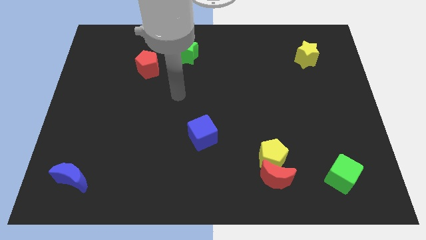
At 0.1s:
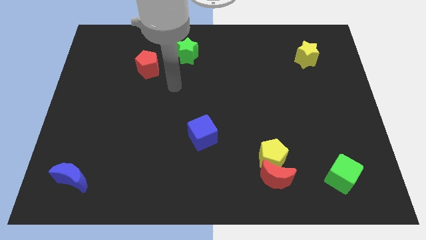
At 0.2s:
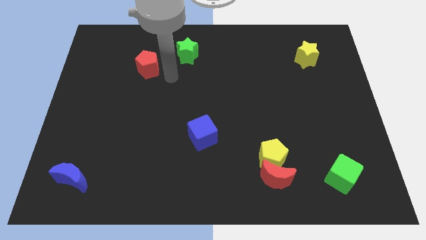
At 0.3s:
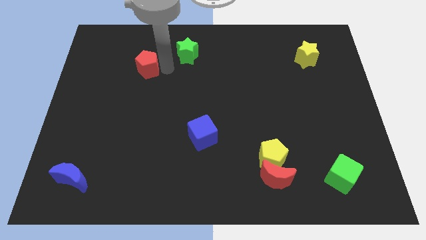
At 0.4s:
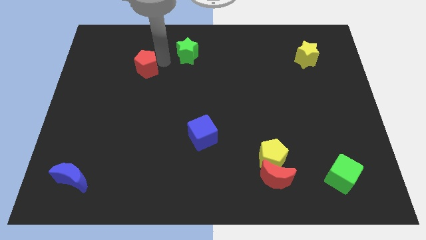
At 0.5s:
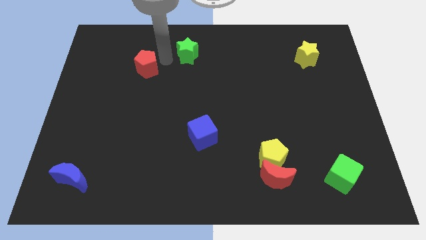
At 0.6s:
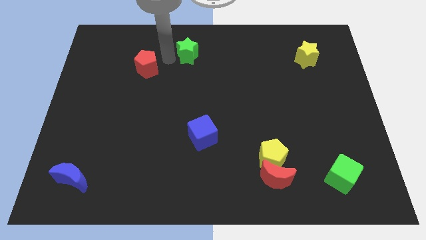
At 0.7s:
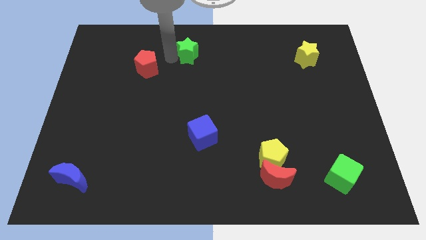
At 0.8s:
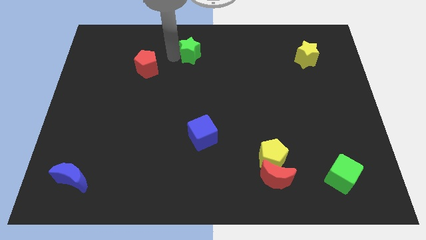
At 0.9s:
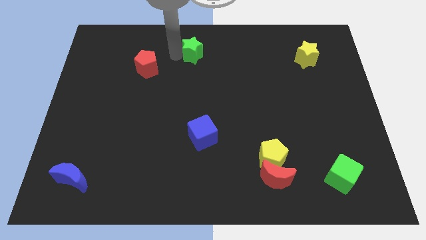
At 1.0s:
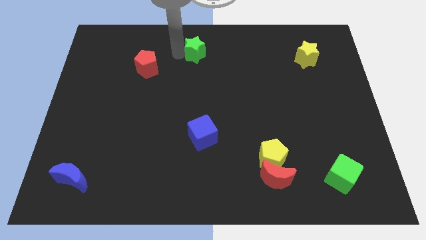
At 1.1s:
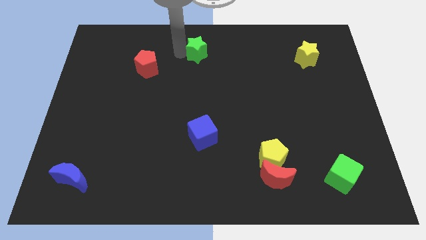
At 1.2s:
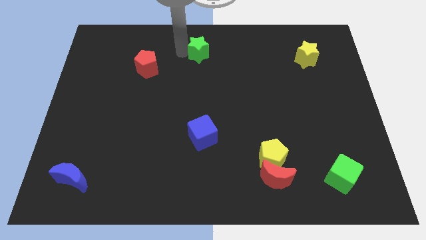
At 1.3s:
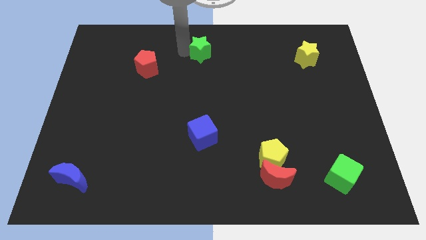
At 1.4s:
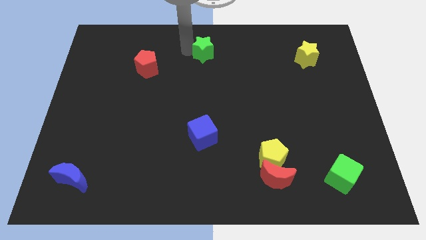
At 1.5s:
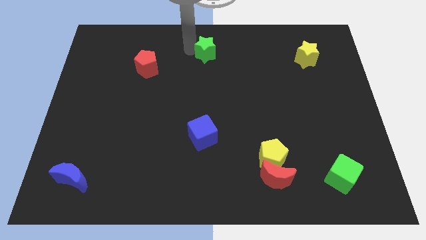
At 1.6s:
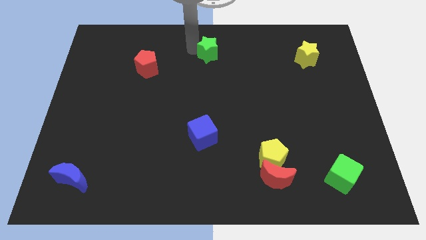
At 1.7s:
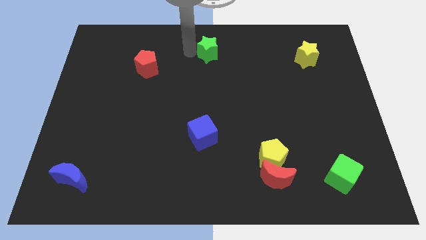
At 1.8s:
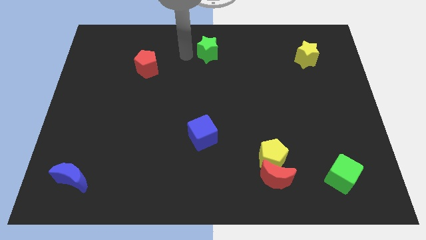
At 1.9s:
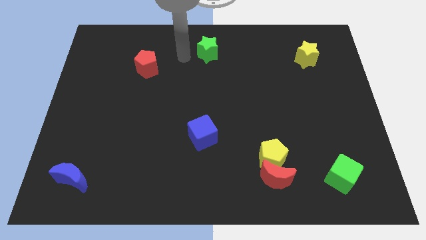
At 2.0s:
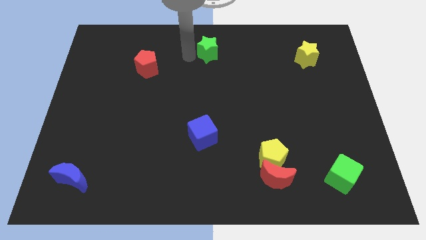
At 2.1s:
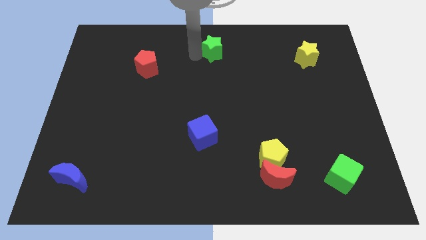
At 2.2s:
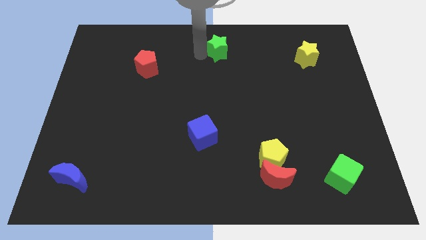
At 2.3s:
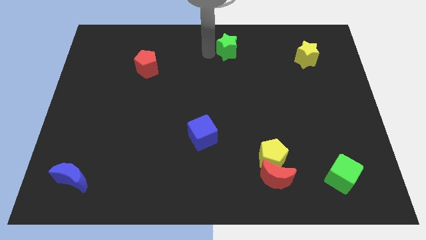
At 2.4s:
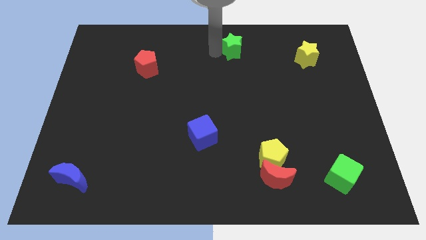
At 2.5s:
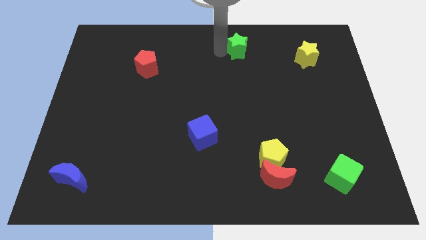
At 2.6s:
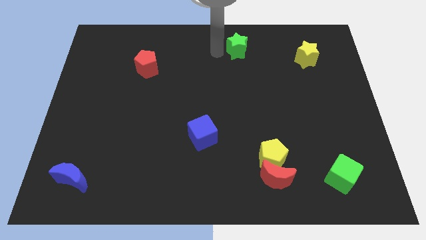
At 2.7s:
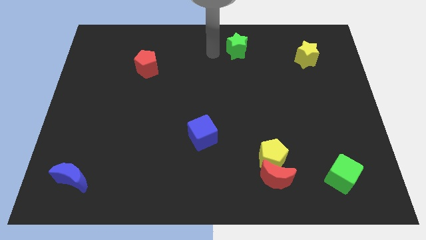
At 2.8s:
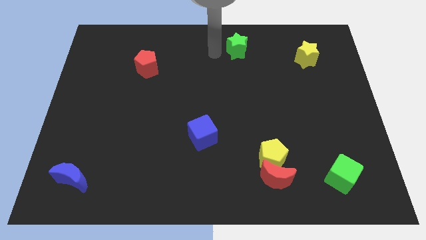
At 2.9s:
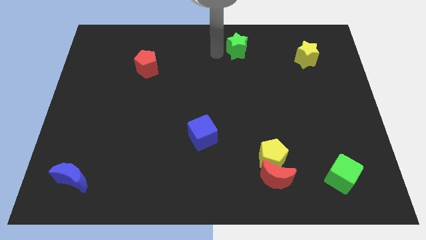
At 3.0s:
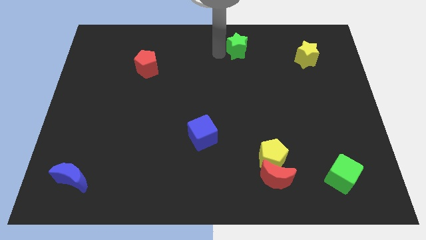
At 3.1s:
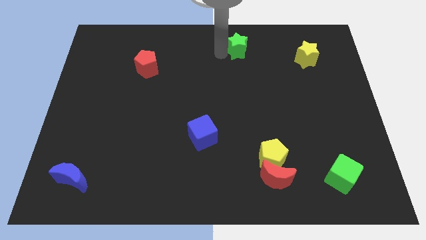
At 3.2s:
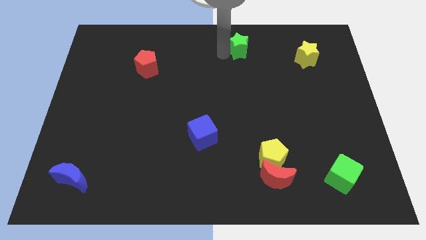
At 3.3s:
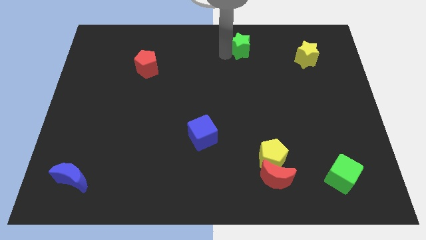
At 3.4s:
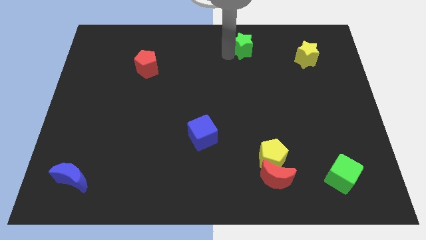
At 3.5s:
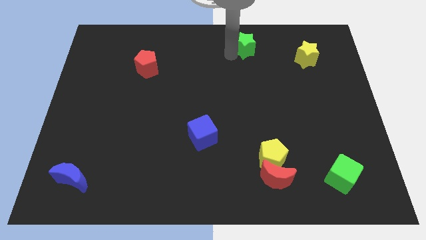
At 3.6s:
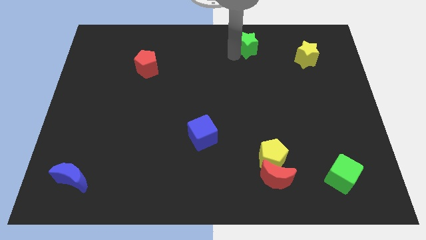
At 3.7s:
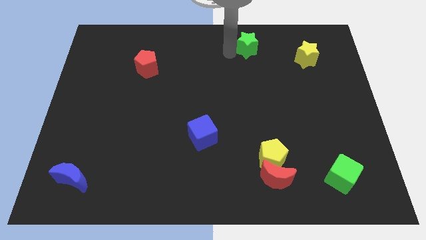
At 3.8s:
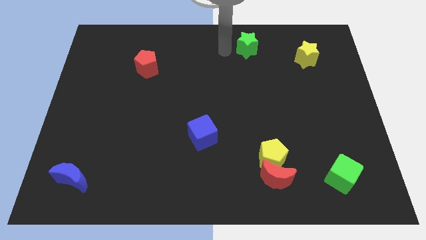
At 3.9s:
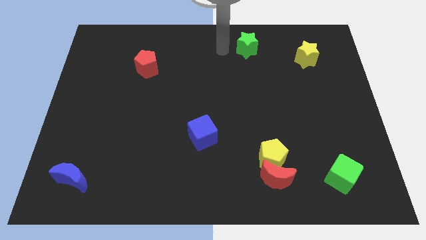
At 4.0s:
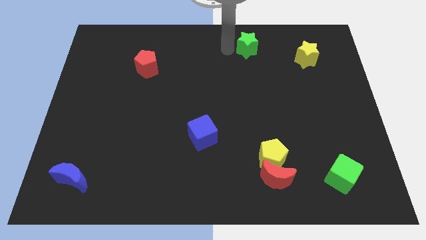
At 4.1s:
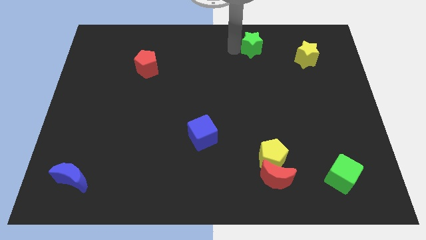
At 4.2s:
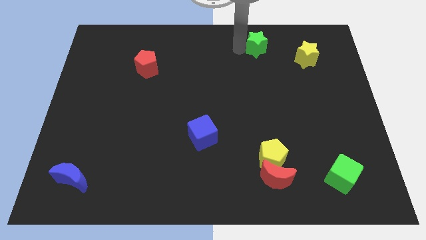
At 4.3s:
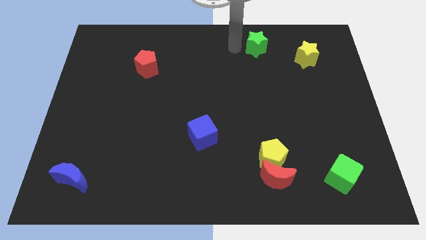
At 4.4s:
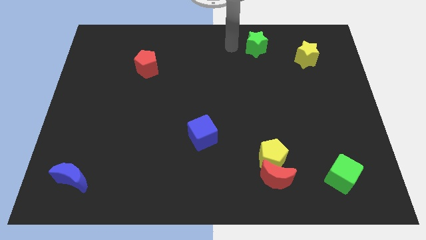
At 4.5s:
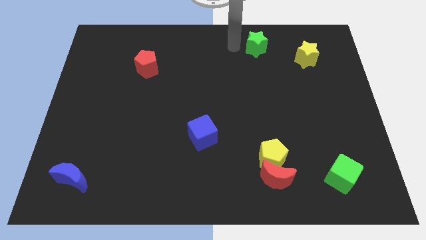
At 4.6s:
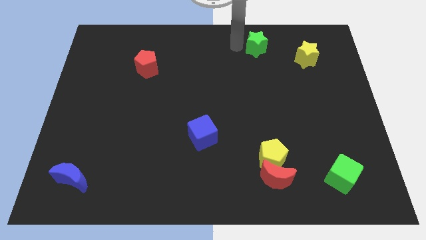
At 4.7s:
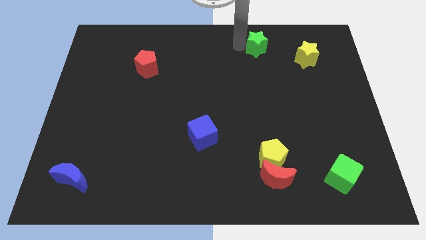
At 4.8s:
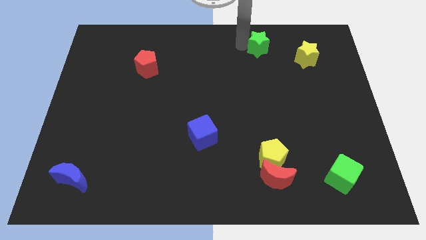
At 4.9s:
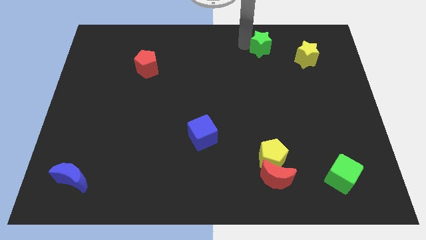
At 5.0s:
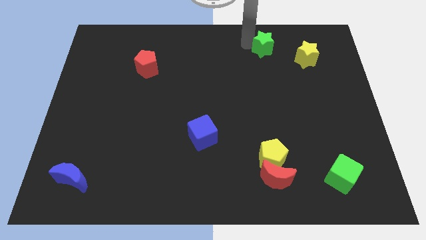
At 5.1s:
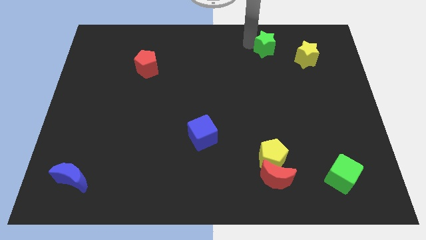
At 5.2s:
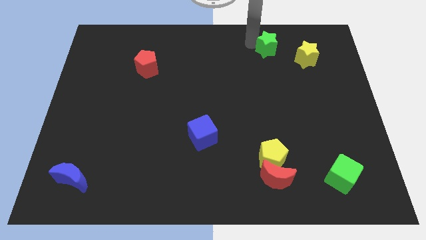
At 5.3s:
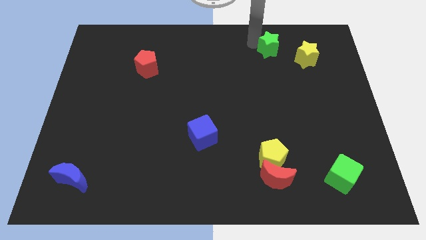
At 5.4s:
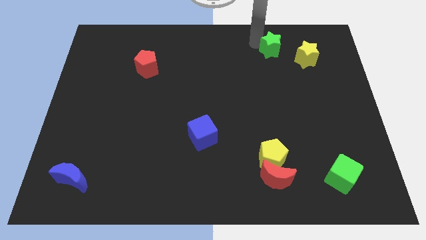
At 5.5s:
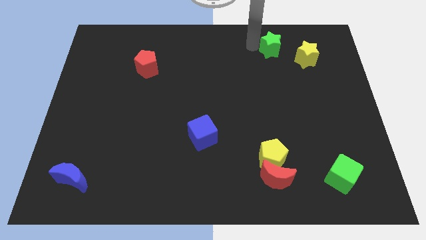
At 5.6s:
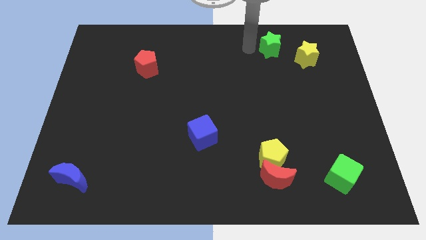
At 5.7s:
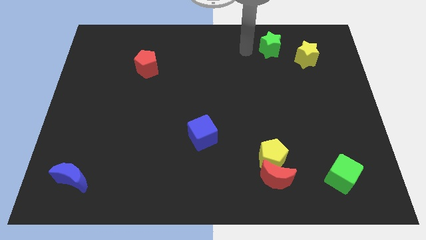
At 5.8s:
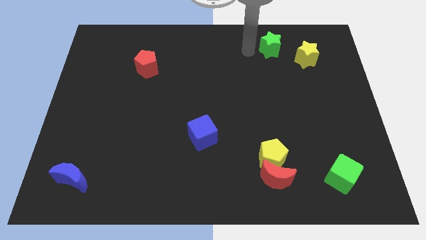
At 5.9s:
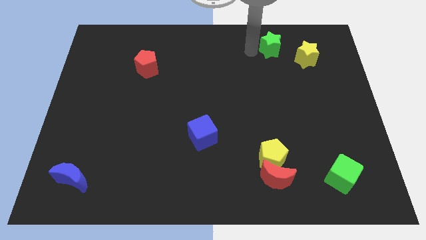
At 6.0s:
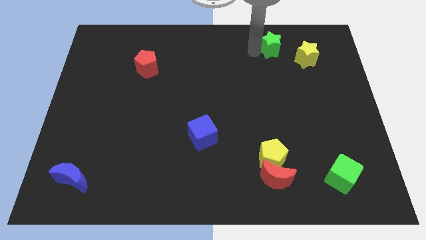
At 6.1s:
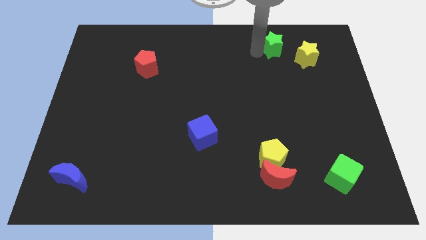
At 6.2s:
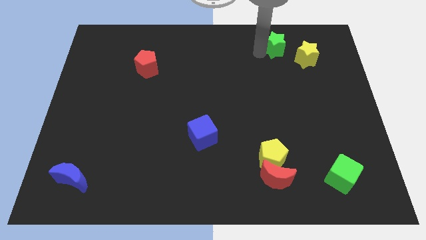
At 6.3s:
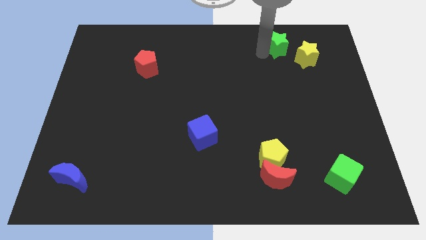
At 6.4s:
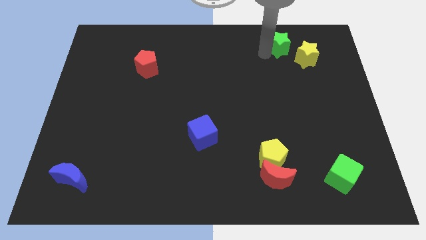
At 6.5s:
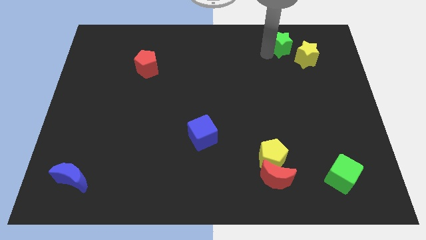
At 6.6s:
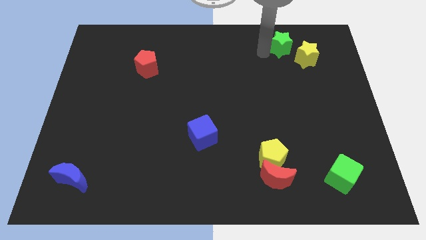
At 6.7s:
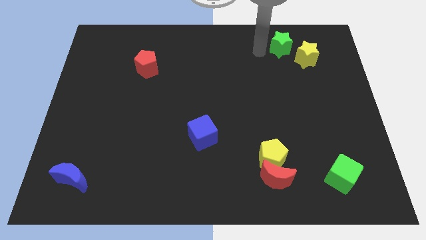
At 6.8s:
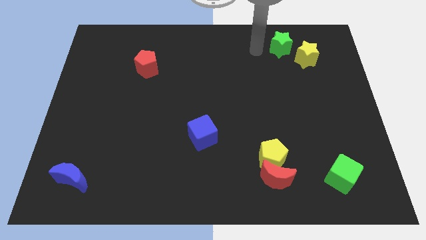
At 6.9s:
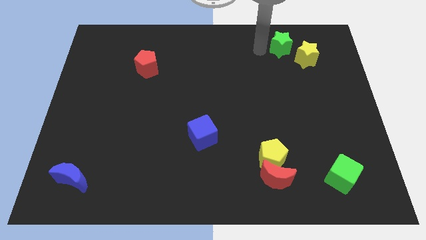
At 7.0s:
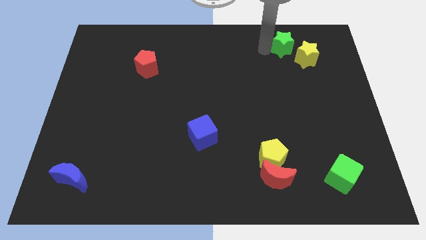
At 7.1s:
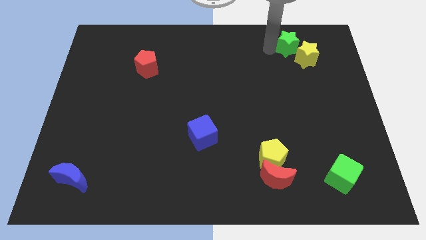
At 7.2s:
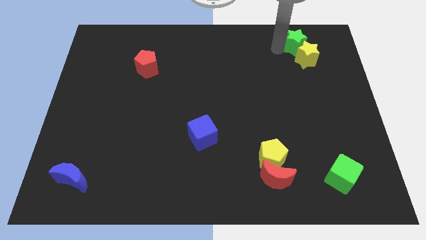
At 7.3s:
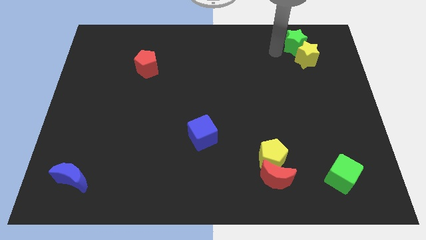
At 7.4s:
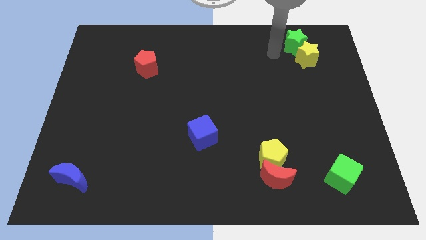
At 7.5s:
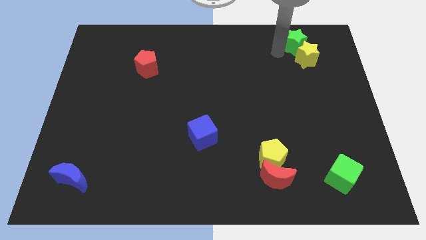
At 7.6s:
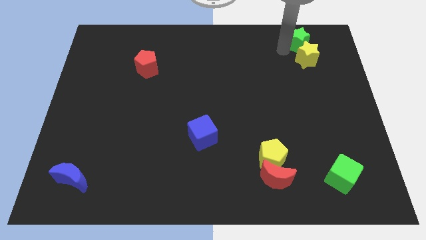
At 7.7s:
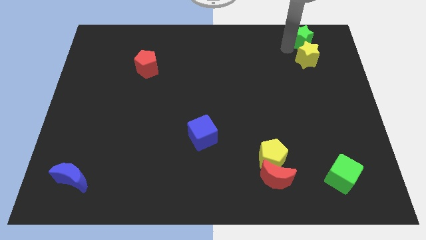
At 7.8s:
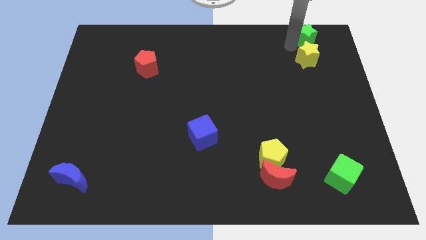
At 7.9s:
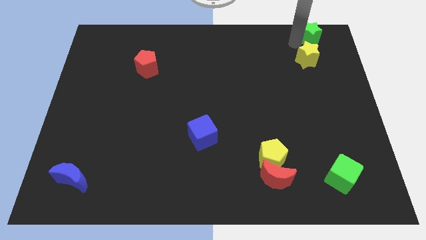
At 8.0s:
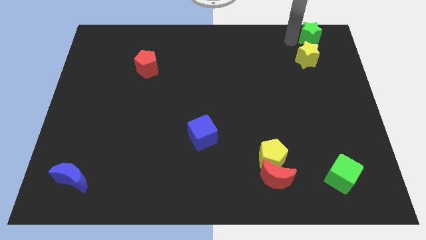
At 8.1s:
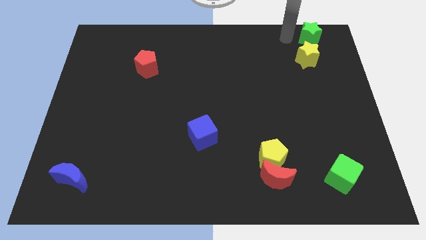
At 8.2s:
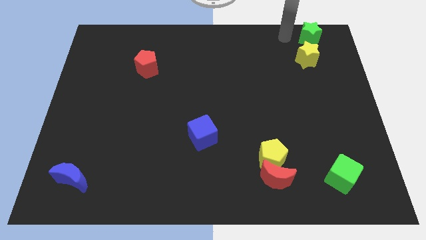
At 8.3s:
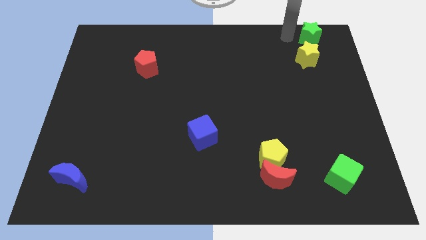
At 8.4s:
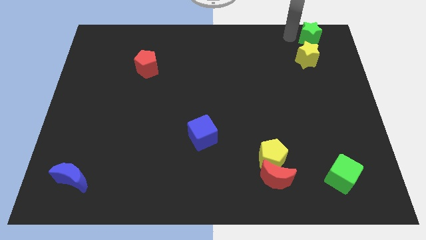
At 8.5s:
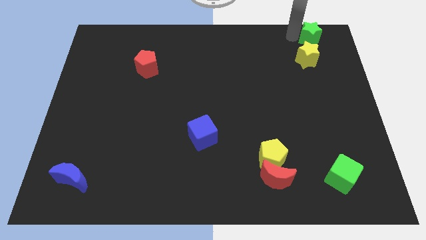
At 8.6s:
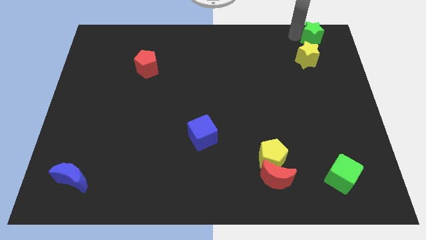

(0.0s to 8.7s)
push the green star to the top right corner
